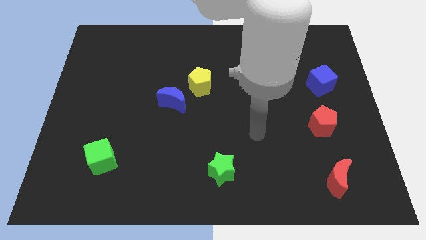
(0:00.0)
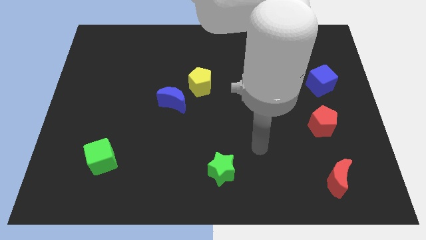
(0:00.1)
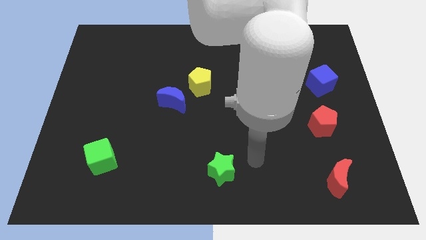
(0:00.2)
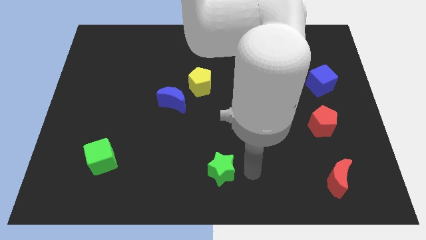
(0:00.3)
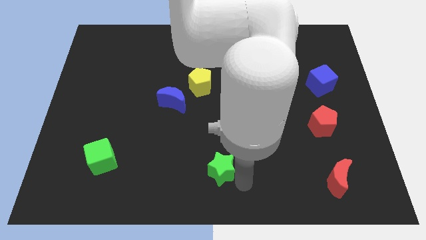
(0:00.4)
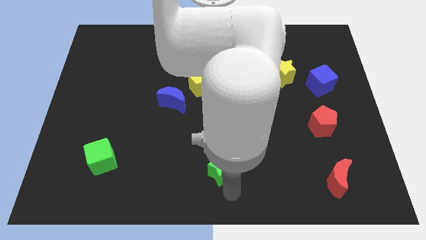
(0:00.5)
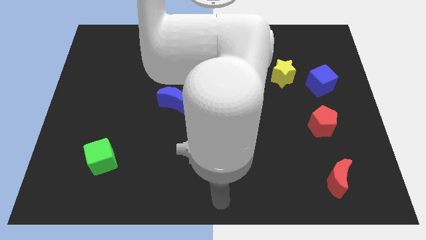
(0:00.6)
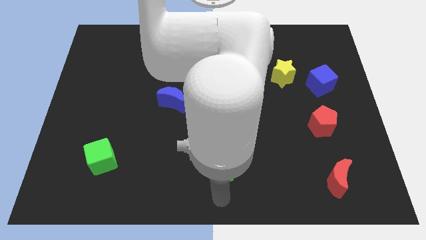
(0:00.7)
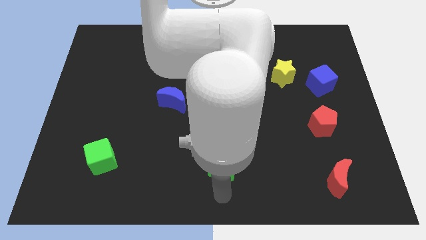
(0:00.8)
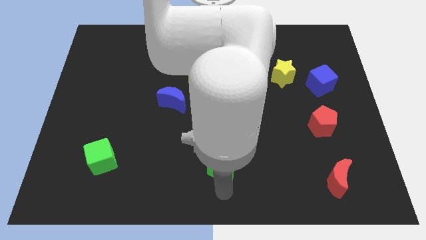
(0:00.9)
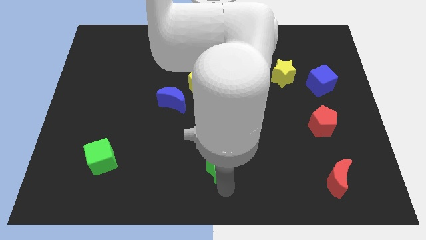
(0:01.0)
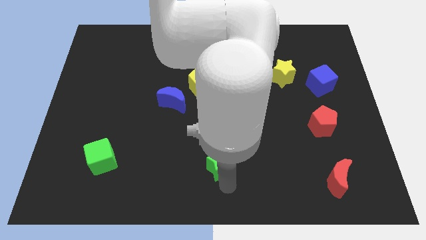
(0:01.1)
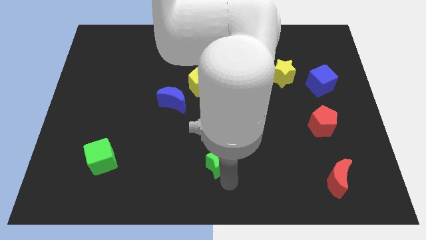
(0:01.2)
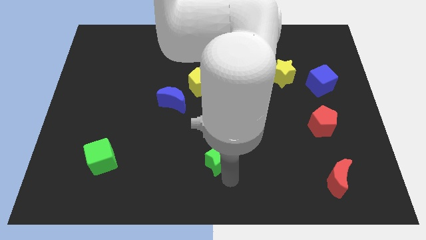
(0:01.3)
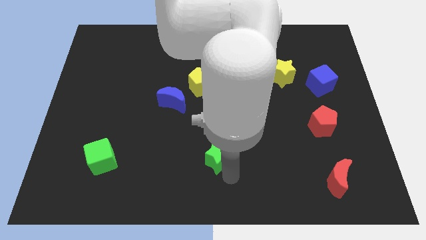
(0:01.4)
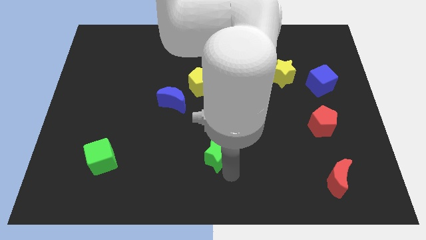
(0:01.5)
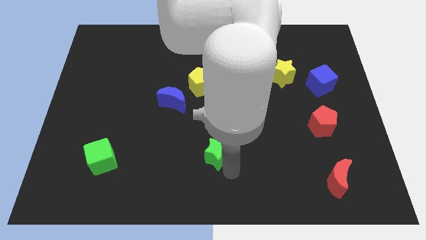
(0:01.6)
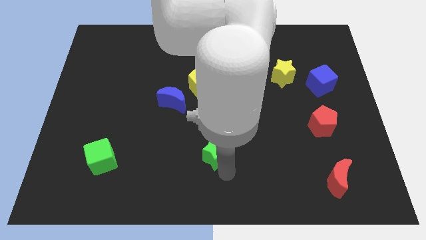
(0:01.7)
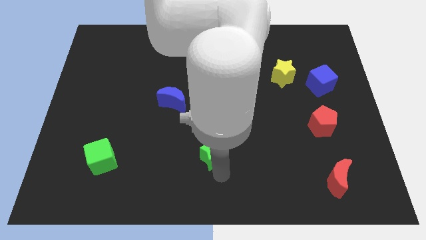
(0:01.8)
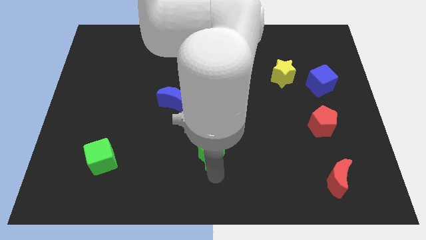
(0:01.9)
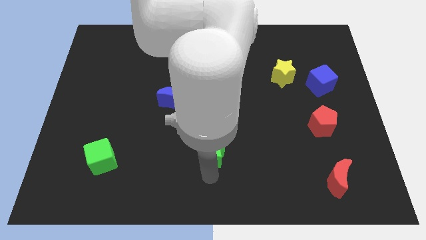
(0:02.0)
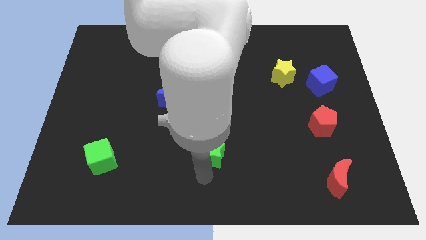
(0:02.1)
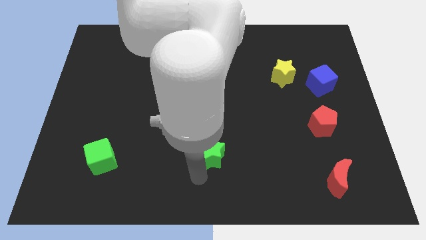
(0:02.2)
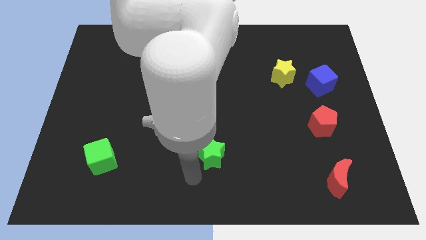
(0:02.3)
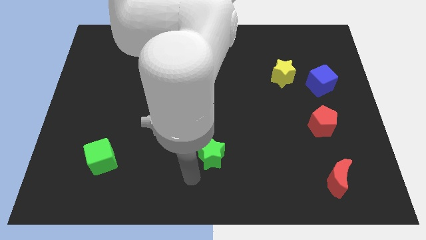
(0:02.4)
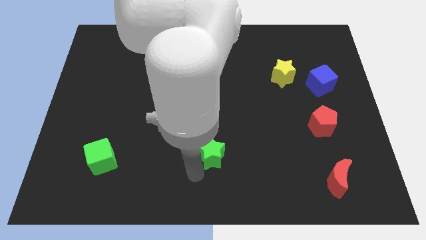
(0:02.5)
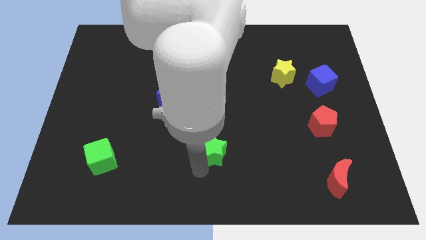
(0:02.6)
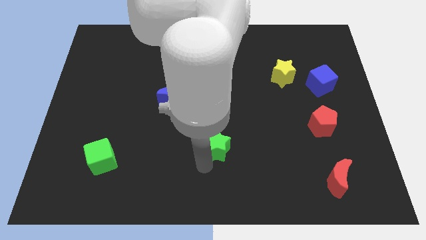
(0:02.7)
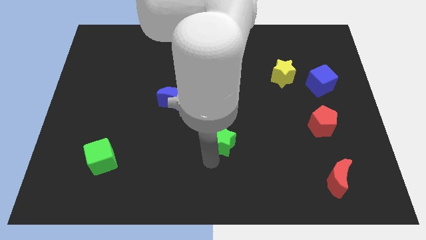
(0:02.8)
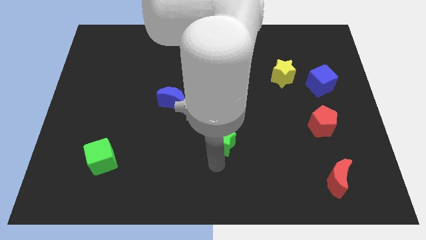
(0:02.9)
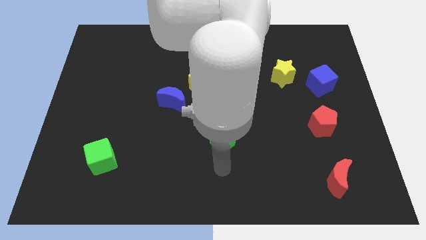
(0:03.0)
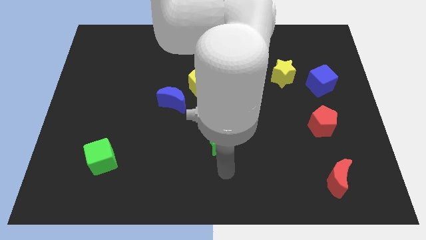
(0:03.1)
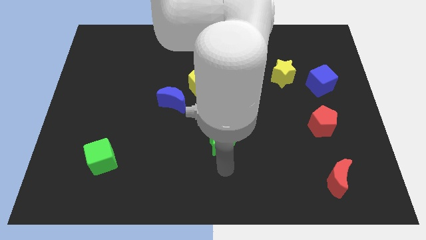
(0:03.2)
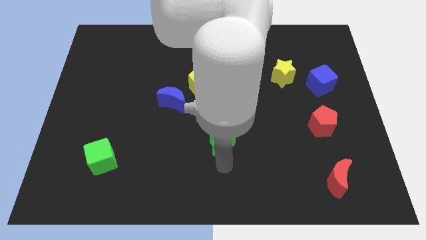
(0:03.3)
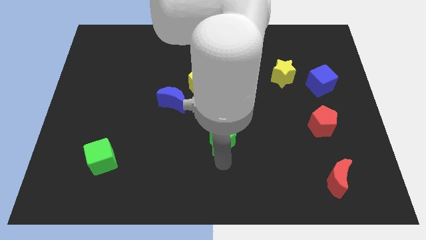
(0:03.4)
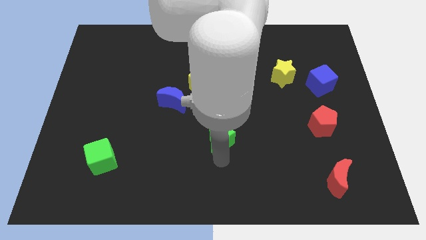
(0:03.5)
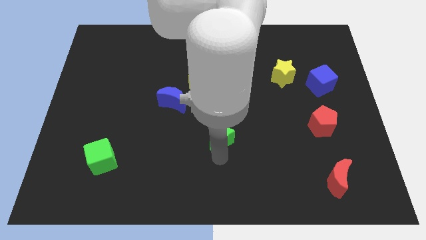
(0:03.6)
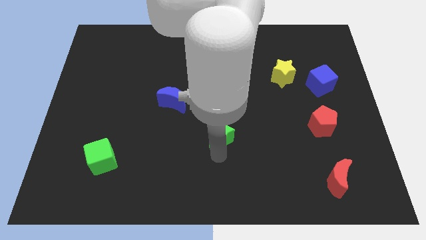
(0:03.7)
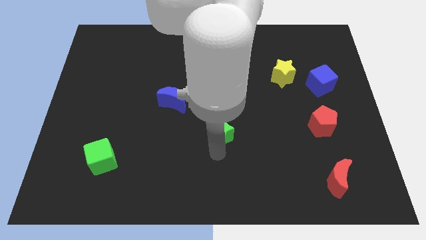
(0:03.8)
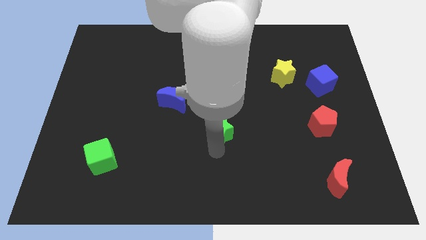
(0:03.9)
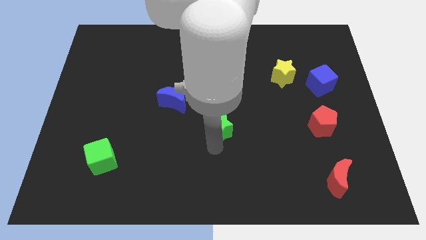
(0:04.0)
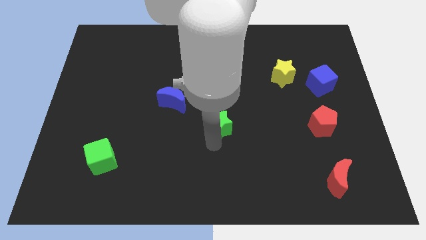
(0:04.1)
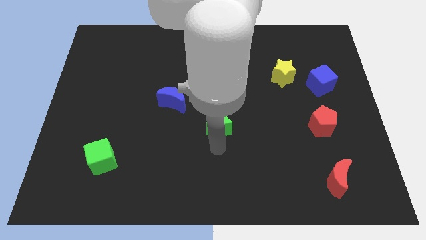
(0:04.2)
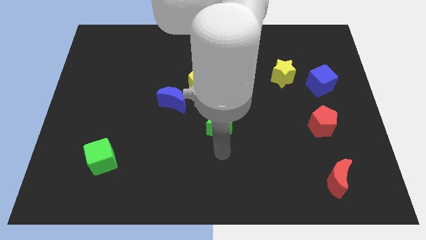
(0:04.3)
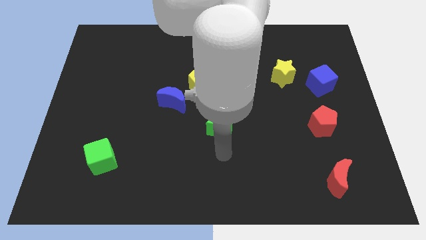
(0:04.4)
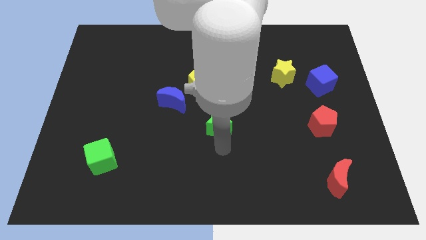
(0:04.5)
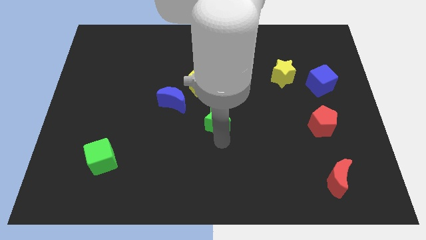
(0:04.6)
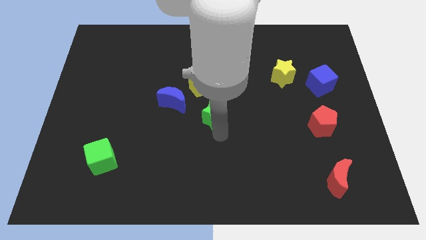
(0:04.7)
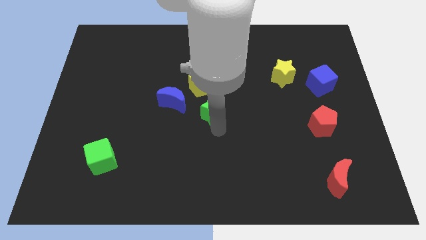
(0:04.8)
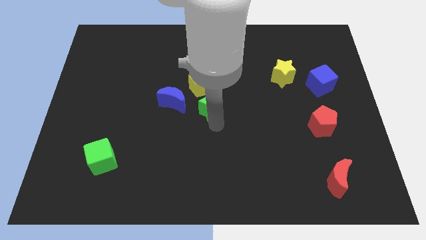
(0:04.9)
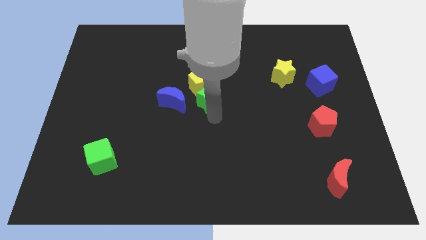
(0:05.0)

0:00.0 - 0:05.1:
move the green star next to the yellow pentagon

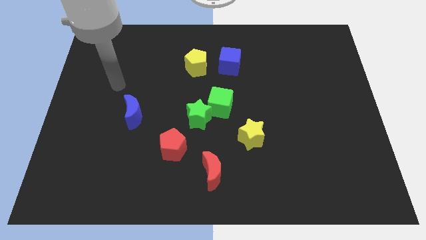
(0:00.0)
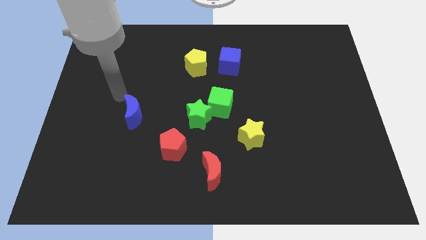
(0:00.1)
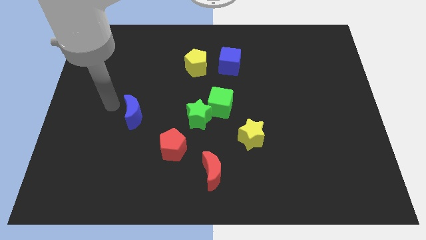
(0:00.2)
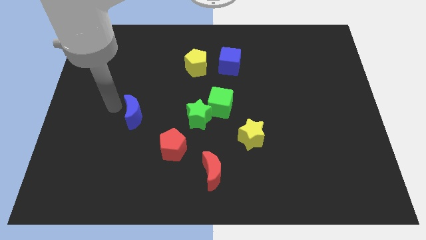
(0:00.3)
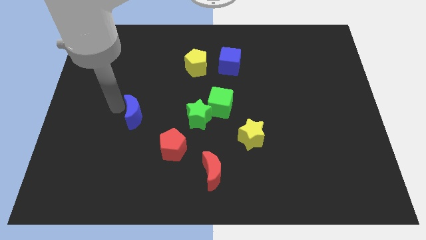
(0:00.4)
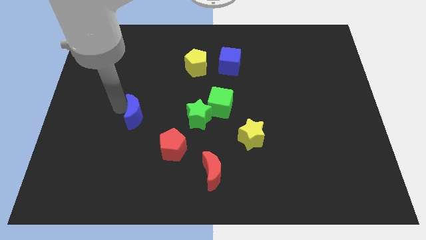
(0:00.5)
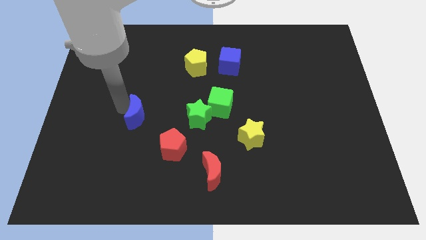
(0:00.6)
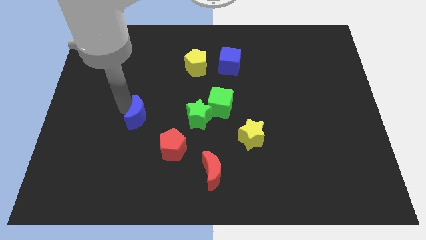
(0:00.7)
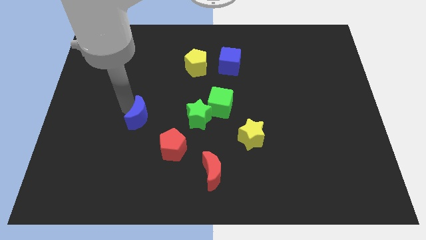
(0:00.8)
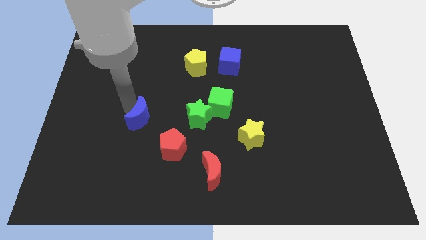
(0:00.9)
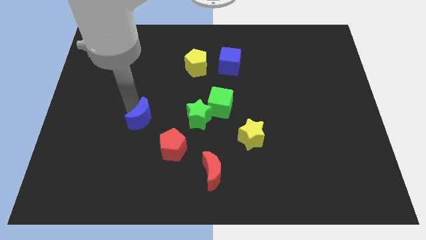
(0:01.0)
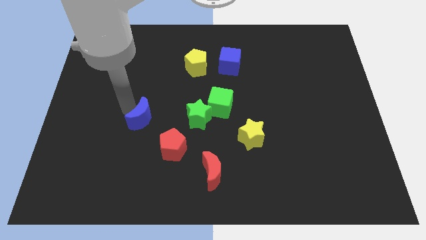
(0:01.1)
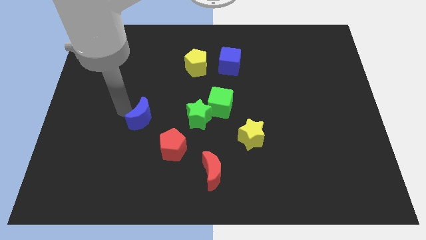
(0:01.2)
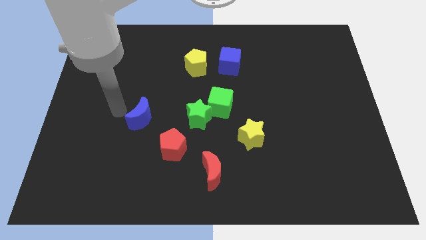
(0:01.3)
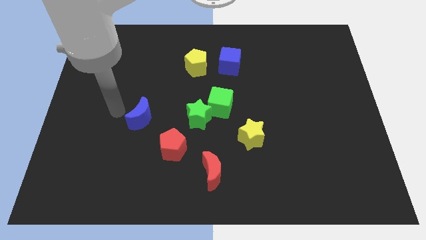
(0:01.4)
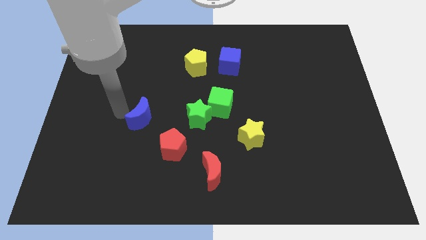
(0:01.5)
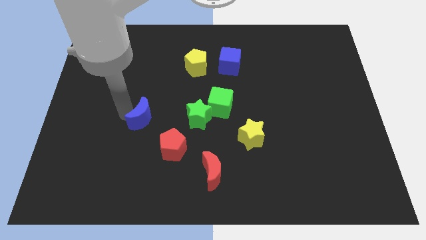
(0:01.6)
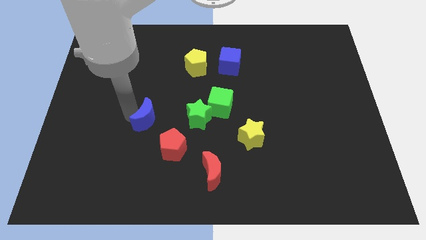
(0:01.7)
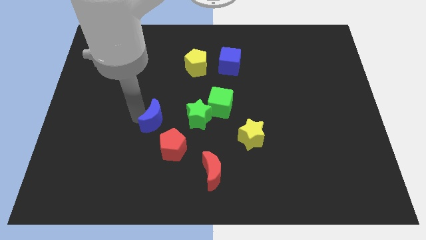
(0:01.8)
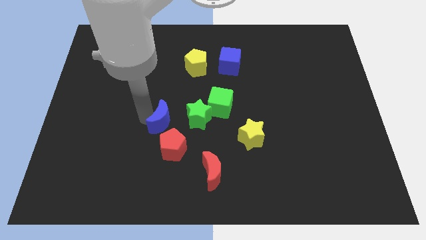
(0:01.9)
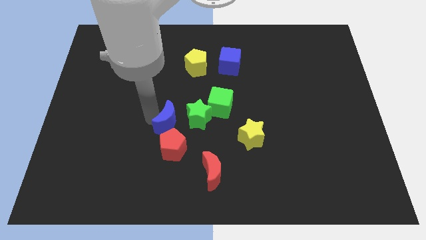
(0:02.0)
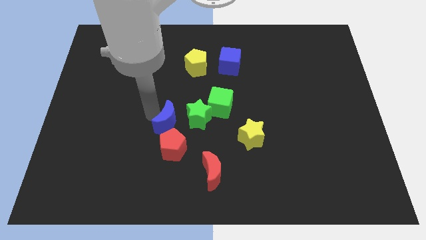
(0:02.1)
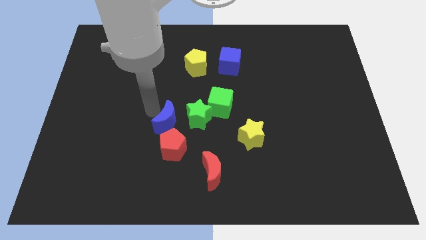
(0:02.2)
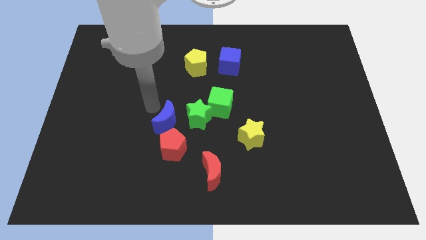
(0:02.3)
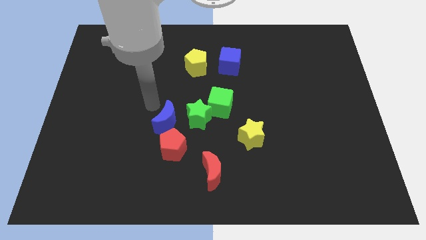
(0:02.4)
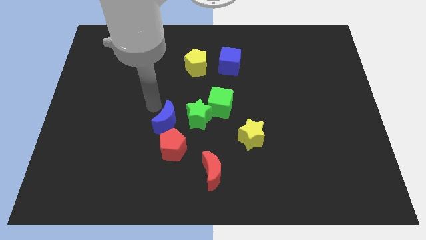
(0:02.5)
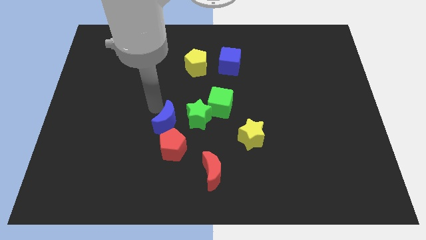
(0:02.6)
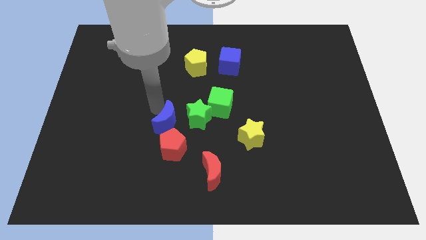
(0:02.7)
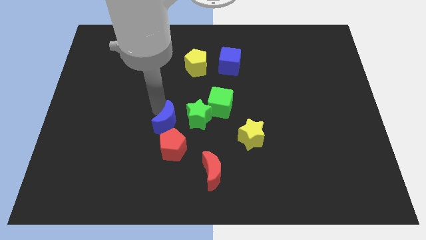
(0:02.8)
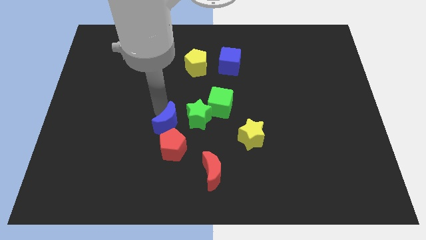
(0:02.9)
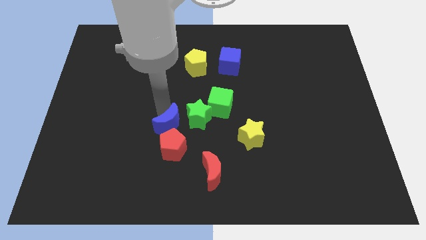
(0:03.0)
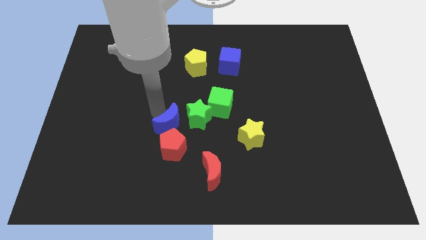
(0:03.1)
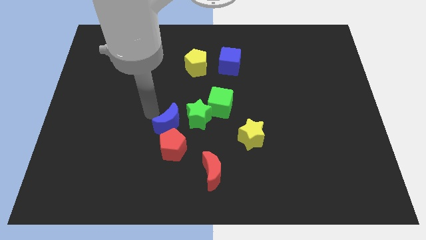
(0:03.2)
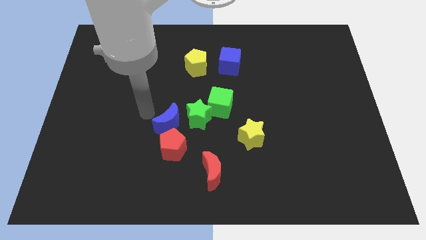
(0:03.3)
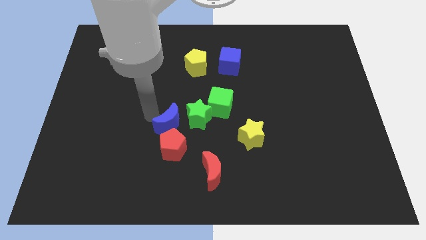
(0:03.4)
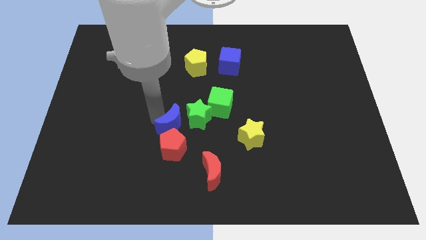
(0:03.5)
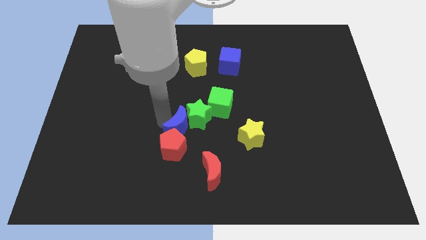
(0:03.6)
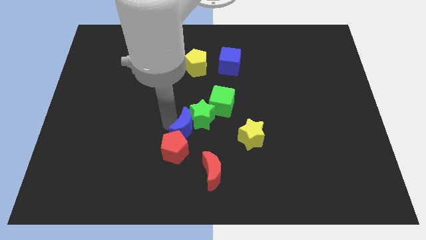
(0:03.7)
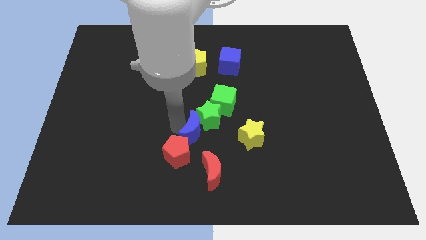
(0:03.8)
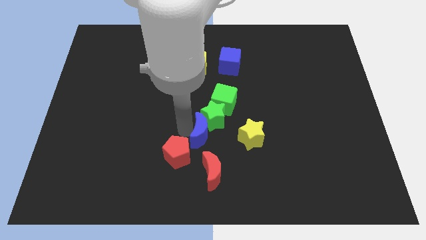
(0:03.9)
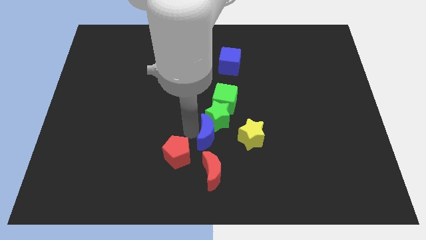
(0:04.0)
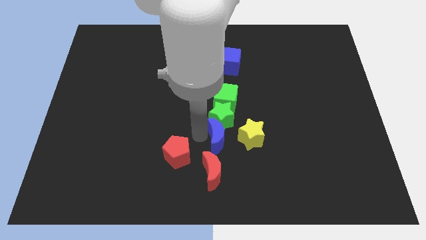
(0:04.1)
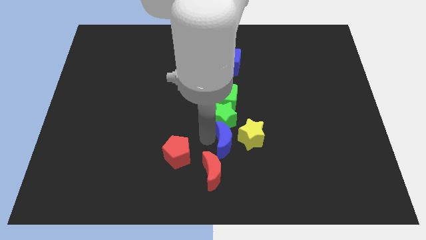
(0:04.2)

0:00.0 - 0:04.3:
push the blue moon towards the yellow star
